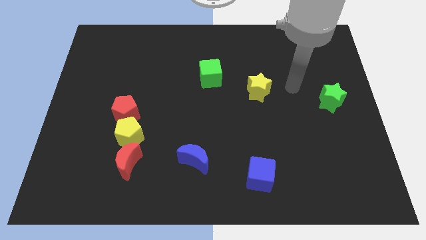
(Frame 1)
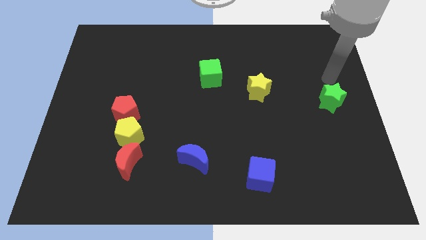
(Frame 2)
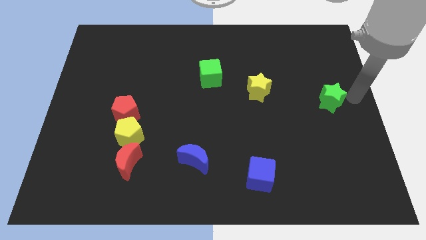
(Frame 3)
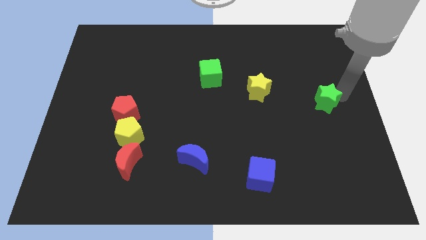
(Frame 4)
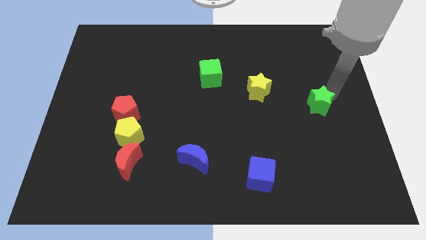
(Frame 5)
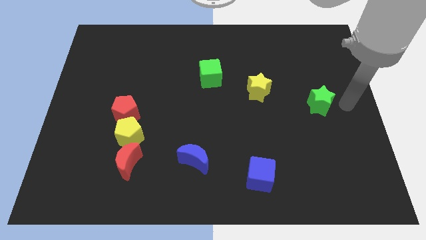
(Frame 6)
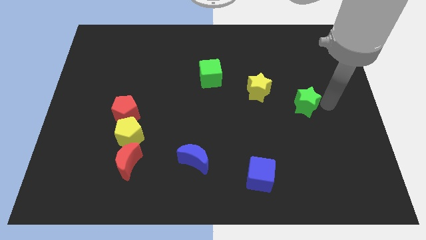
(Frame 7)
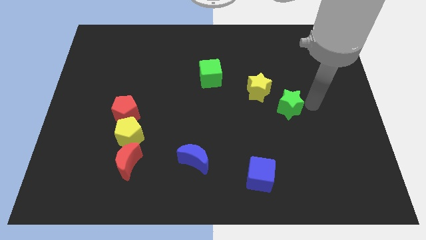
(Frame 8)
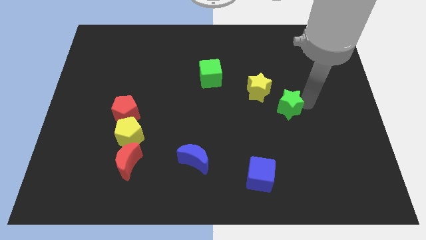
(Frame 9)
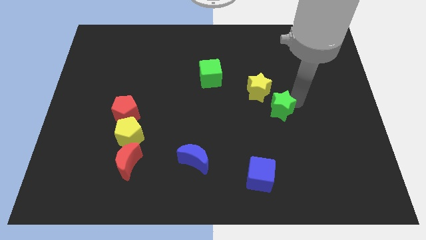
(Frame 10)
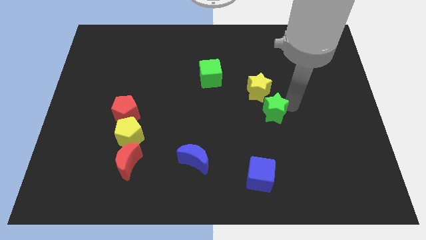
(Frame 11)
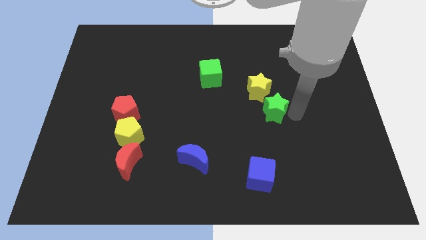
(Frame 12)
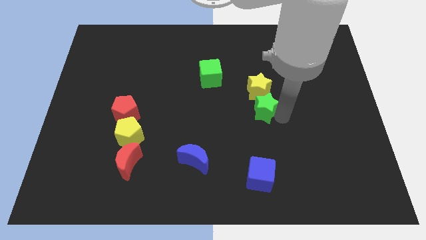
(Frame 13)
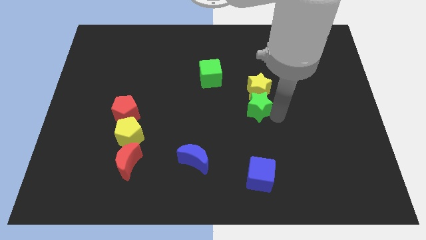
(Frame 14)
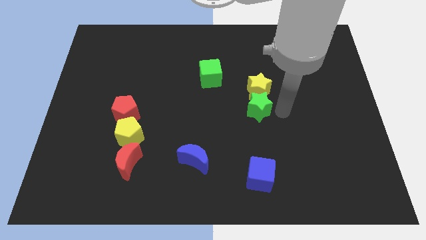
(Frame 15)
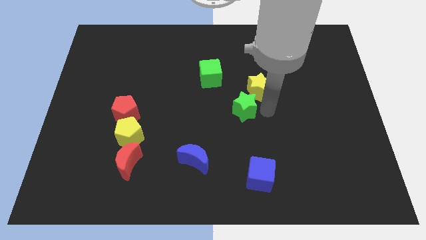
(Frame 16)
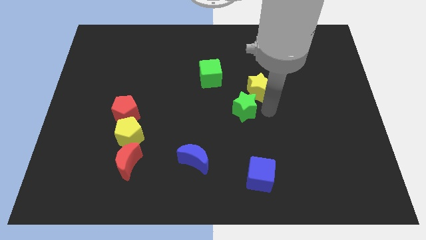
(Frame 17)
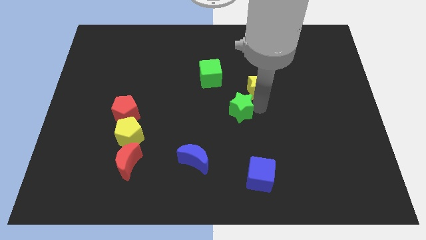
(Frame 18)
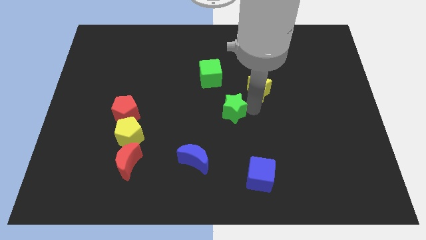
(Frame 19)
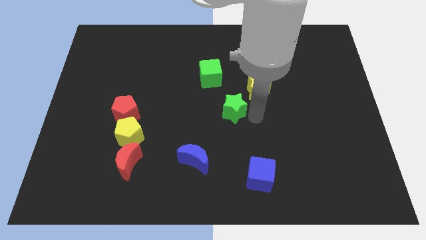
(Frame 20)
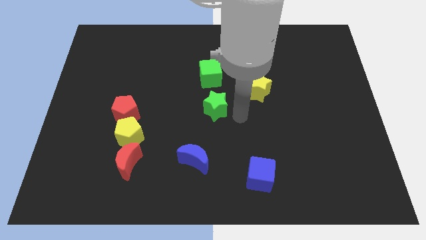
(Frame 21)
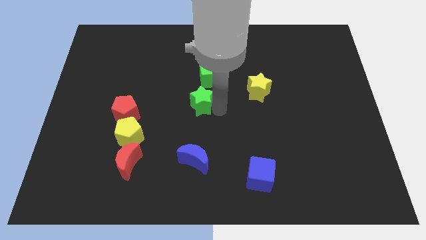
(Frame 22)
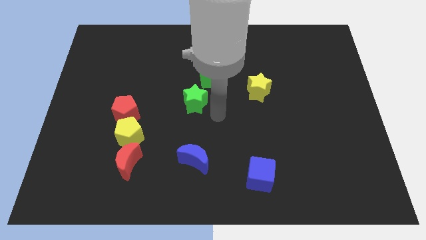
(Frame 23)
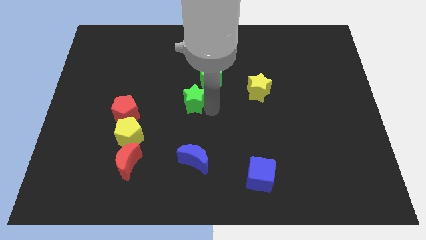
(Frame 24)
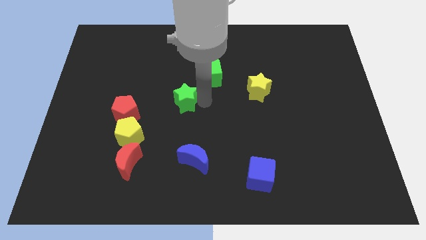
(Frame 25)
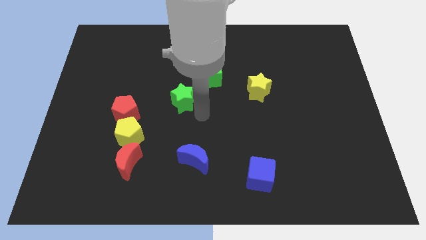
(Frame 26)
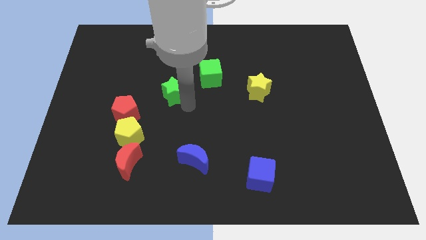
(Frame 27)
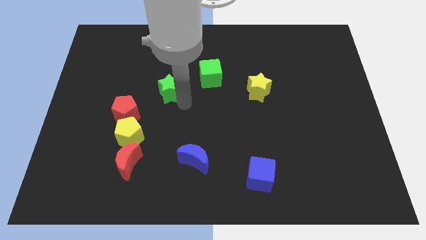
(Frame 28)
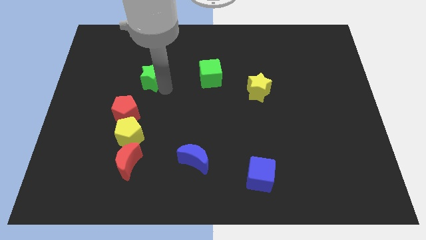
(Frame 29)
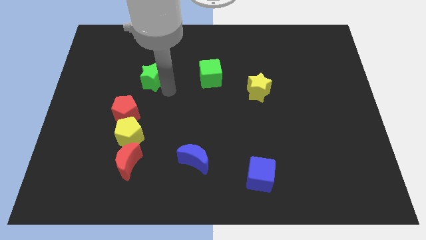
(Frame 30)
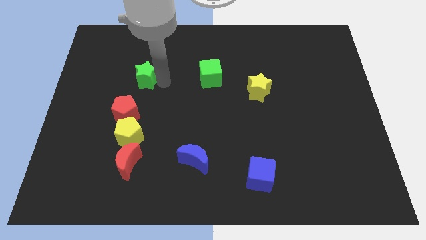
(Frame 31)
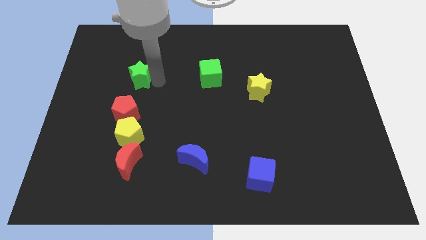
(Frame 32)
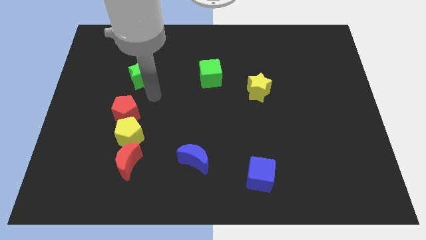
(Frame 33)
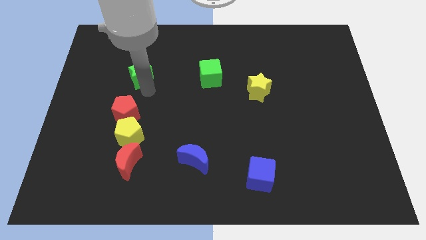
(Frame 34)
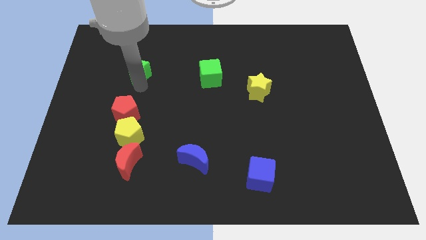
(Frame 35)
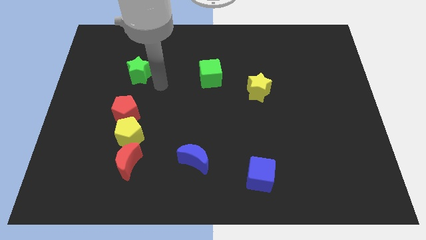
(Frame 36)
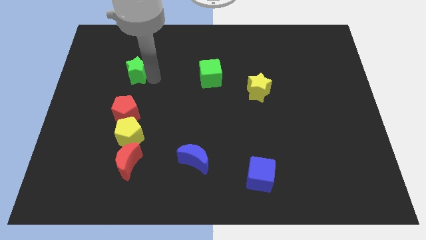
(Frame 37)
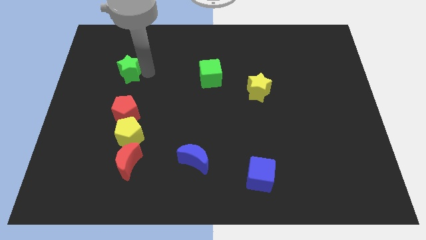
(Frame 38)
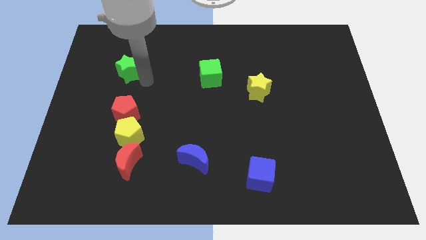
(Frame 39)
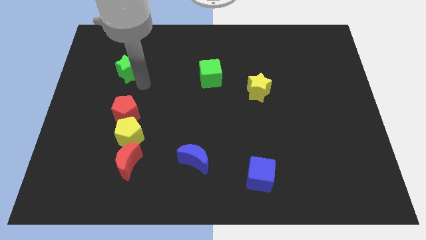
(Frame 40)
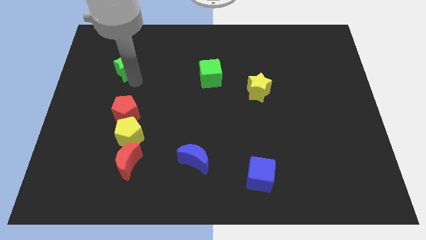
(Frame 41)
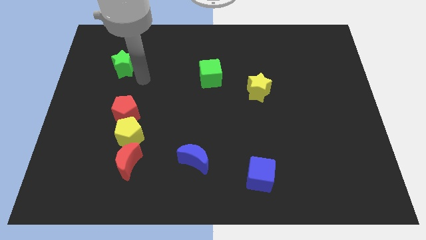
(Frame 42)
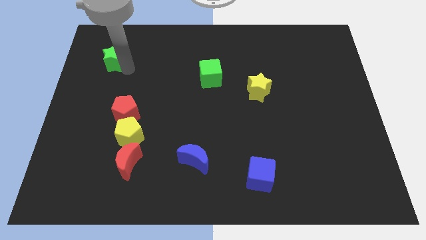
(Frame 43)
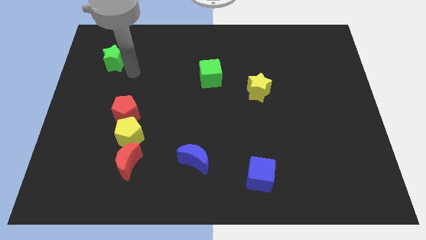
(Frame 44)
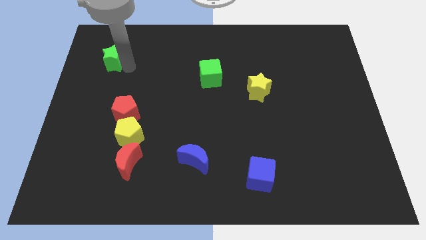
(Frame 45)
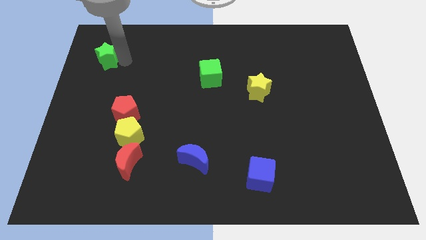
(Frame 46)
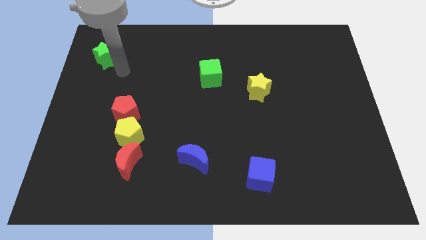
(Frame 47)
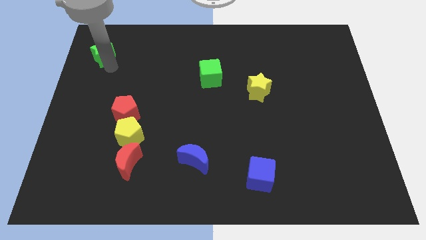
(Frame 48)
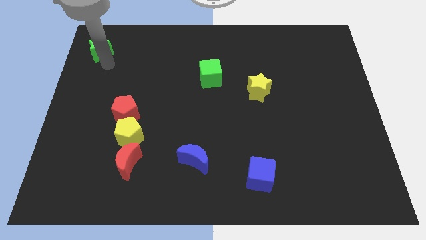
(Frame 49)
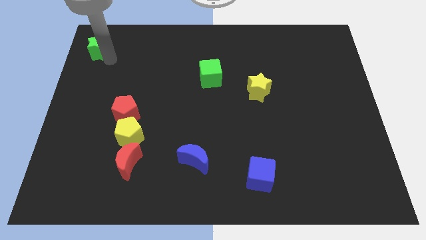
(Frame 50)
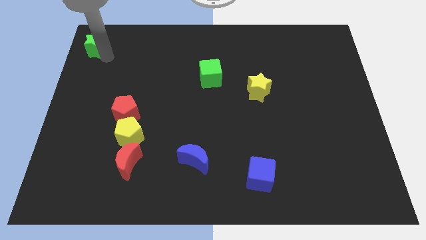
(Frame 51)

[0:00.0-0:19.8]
move the green star to the upper left corner
